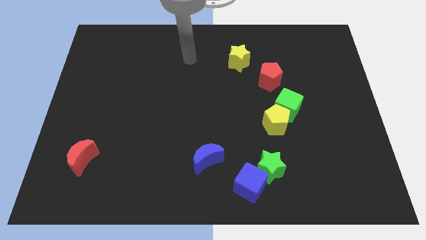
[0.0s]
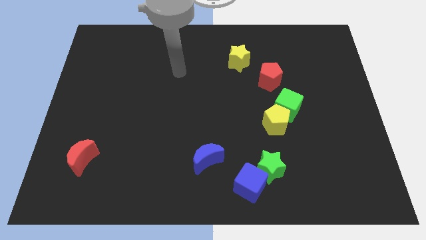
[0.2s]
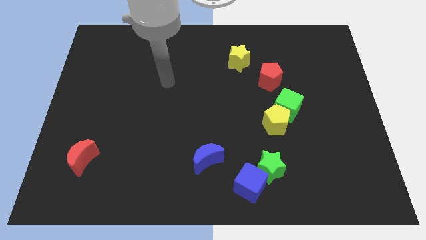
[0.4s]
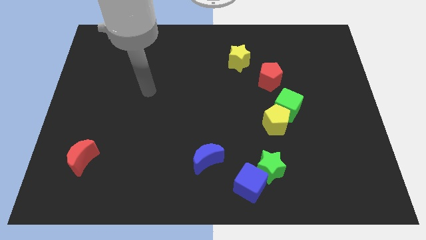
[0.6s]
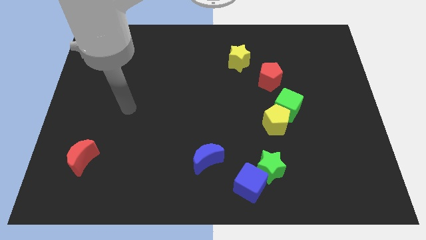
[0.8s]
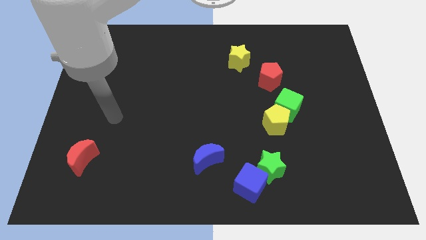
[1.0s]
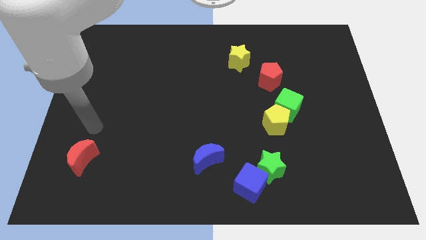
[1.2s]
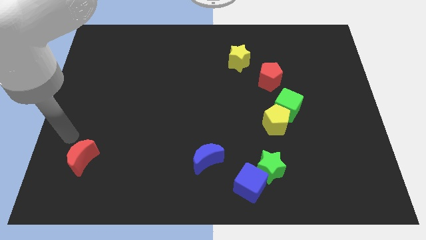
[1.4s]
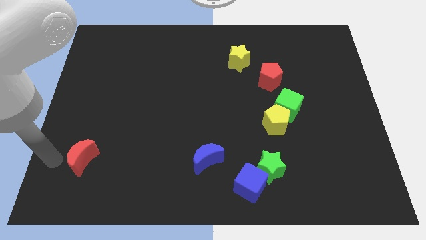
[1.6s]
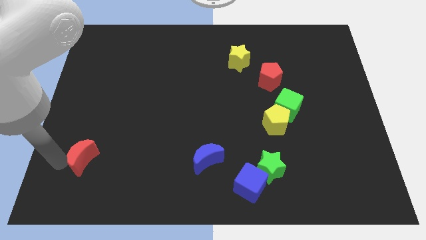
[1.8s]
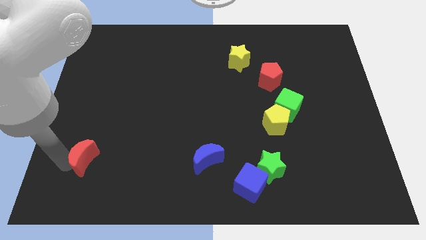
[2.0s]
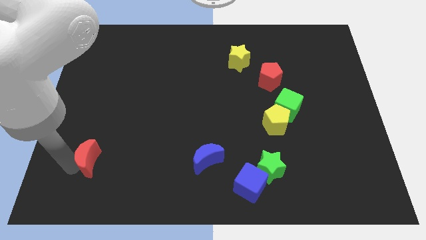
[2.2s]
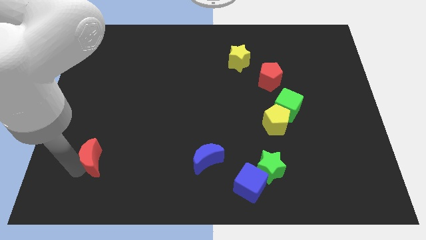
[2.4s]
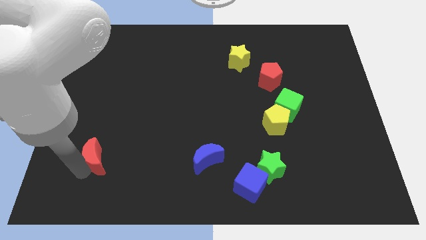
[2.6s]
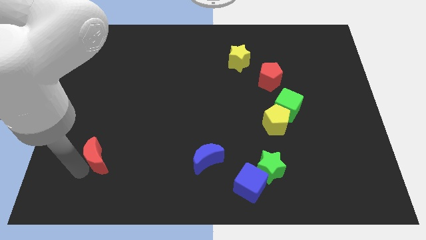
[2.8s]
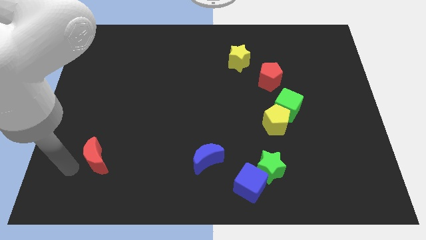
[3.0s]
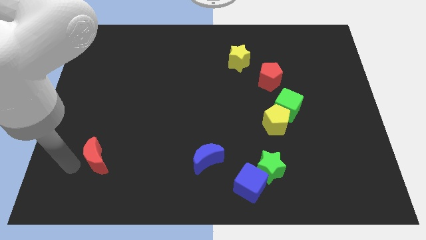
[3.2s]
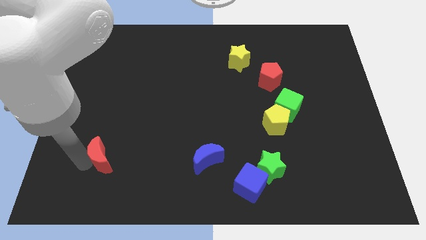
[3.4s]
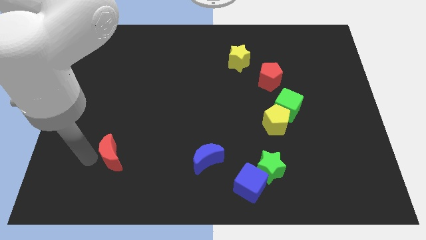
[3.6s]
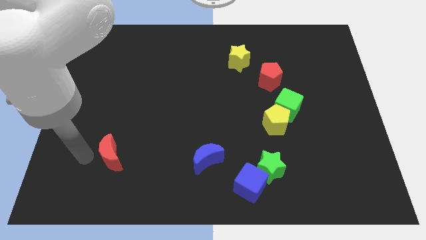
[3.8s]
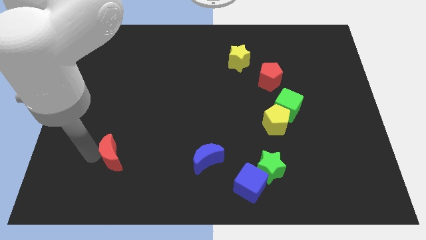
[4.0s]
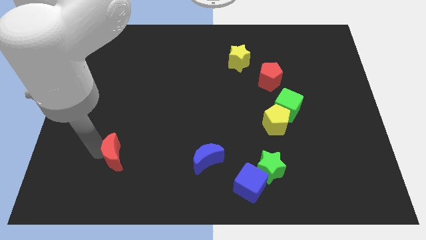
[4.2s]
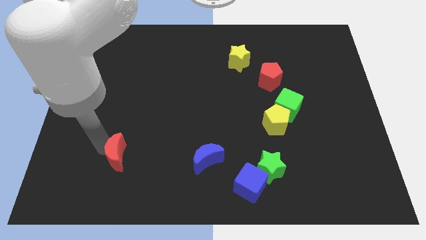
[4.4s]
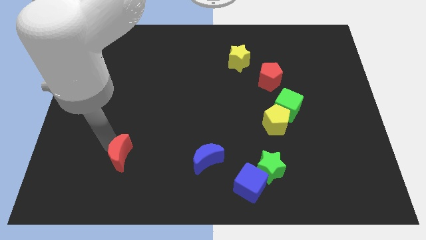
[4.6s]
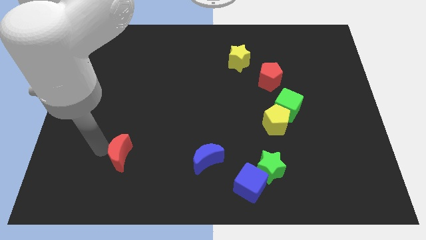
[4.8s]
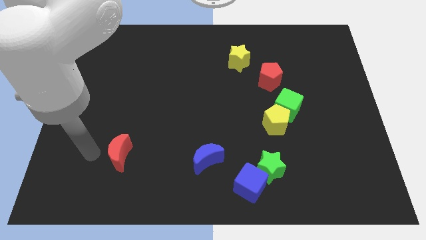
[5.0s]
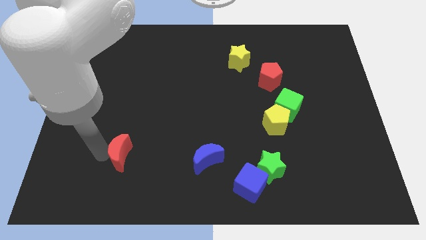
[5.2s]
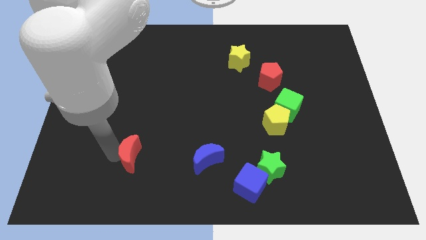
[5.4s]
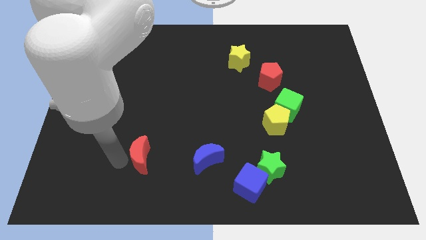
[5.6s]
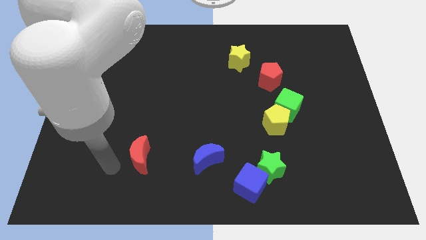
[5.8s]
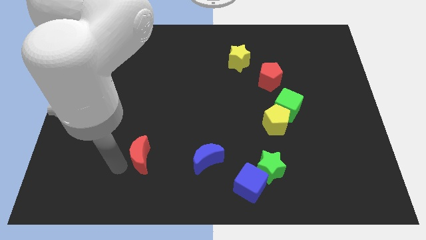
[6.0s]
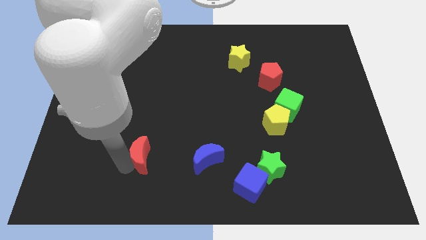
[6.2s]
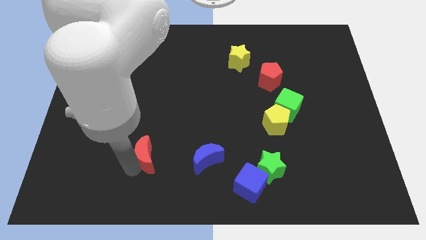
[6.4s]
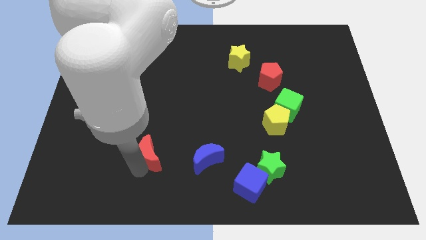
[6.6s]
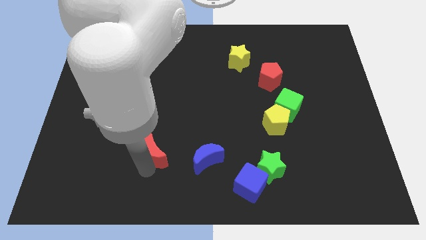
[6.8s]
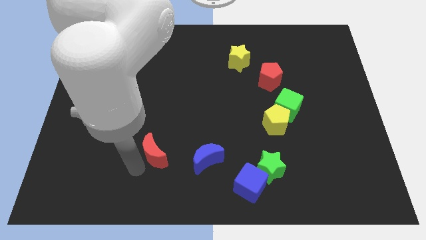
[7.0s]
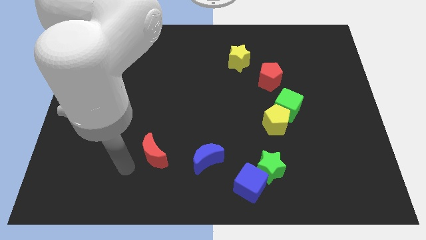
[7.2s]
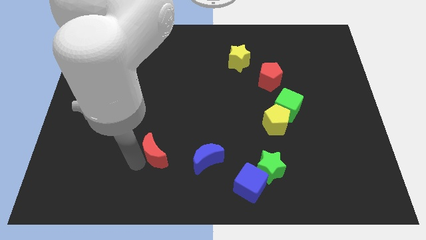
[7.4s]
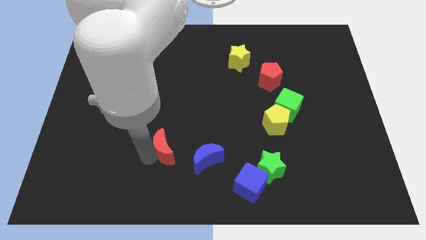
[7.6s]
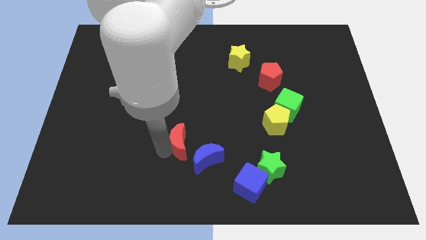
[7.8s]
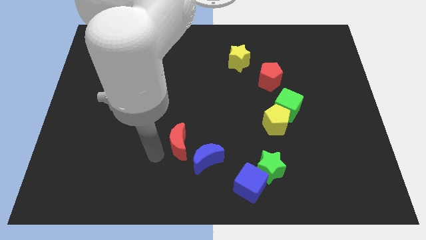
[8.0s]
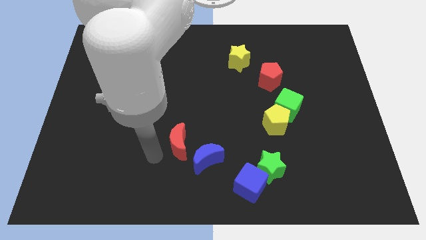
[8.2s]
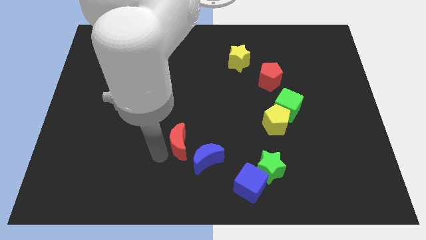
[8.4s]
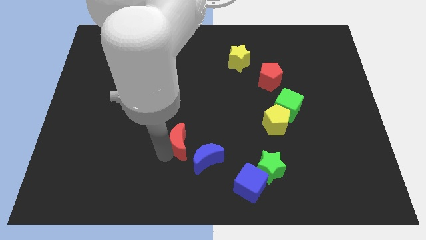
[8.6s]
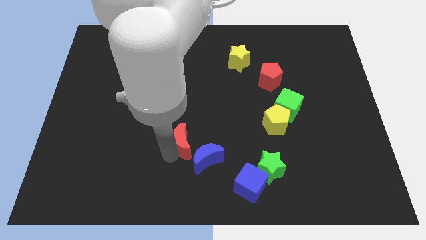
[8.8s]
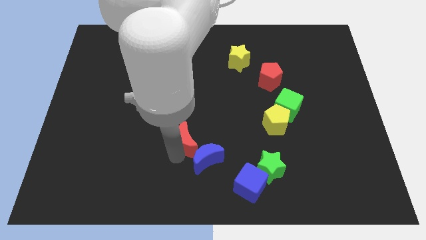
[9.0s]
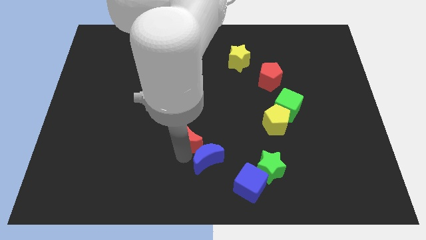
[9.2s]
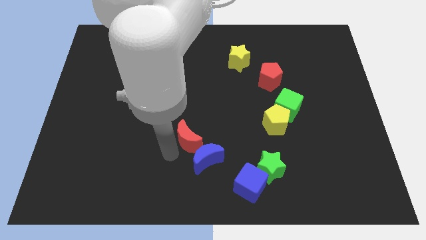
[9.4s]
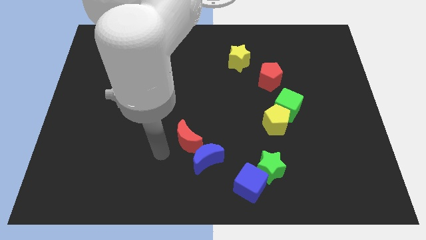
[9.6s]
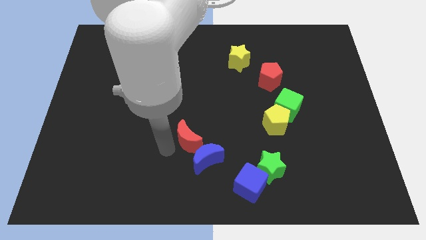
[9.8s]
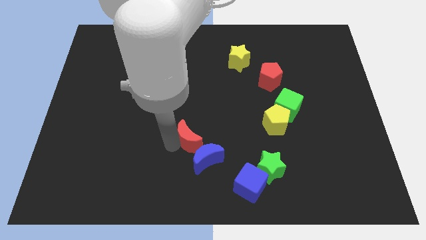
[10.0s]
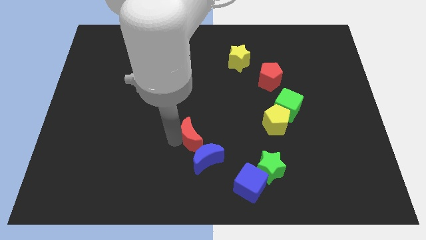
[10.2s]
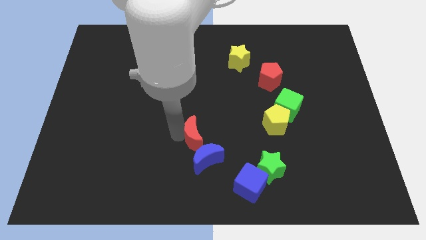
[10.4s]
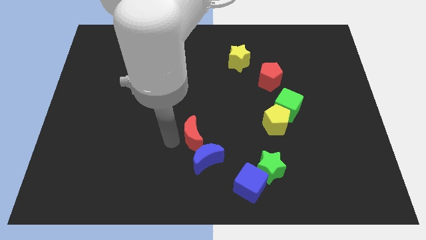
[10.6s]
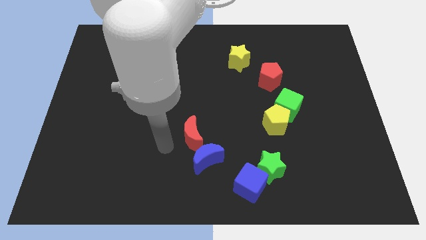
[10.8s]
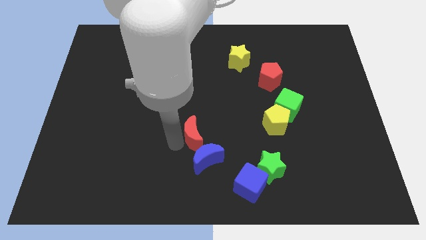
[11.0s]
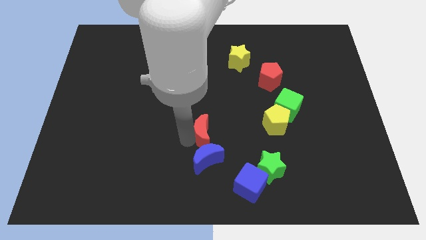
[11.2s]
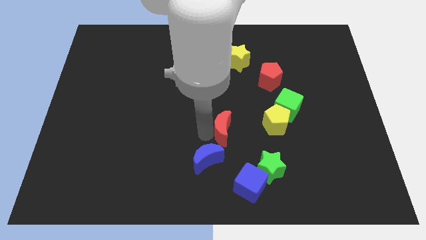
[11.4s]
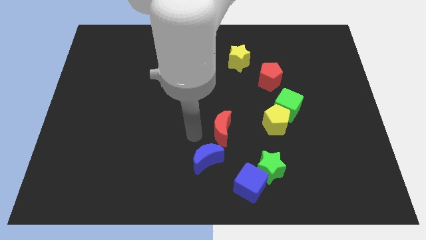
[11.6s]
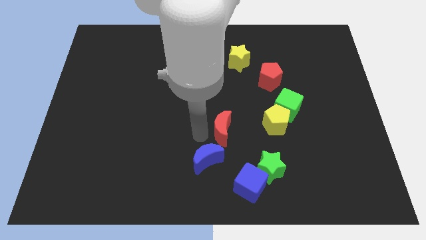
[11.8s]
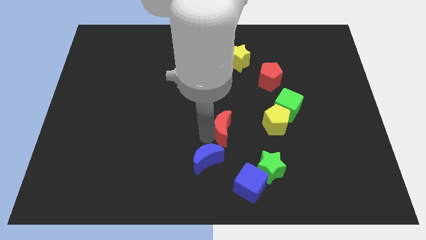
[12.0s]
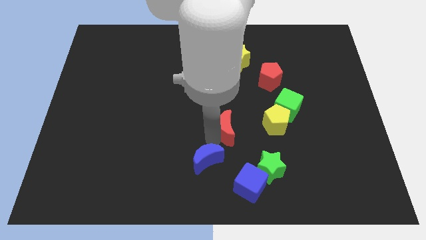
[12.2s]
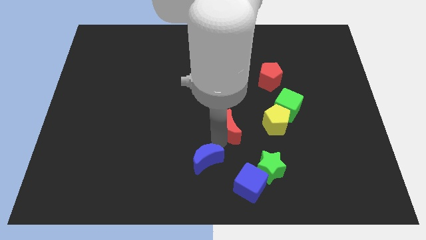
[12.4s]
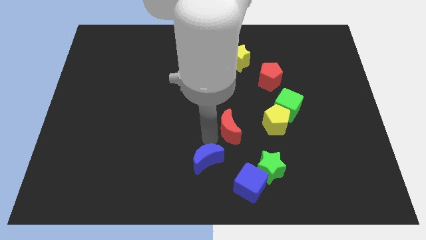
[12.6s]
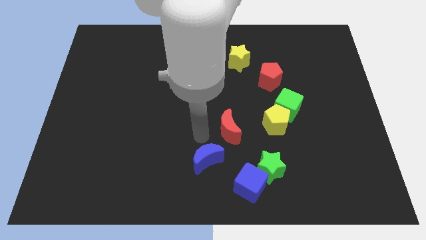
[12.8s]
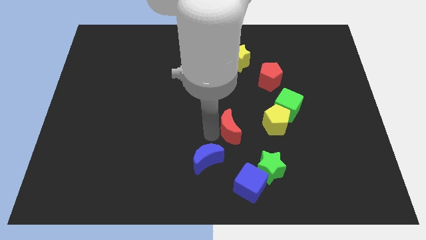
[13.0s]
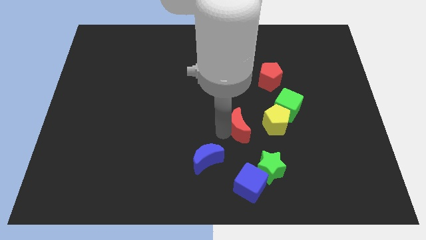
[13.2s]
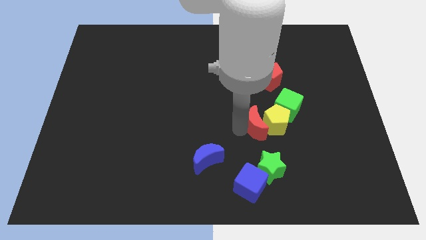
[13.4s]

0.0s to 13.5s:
move the red moon to the yellow pentagon

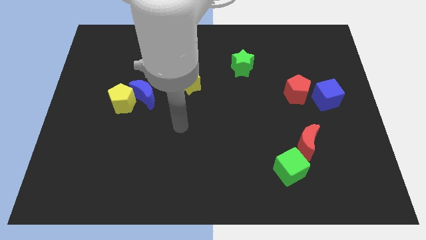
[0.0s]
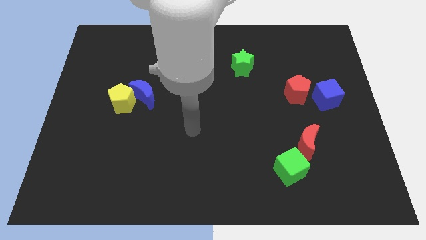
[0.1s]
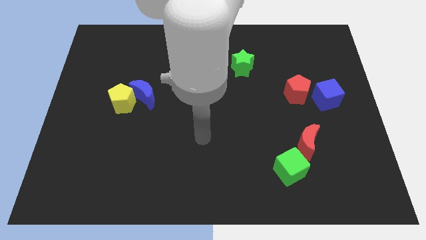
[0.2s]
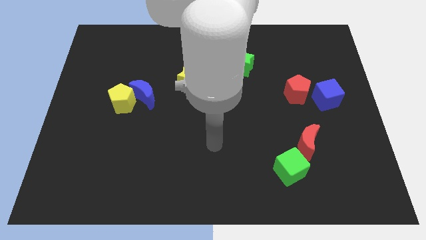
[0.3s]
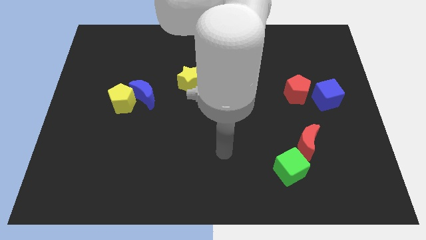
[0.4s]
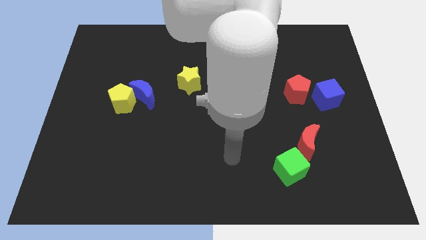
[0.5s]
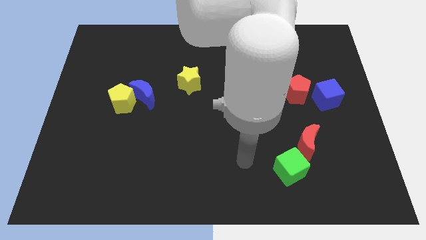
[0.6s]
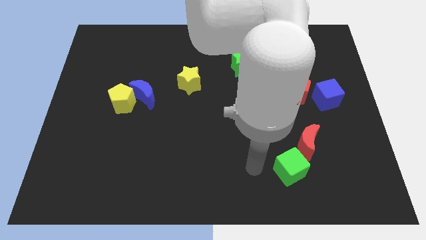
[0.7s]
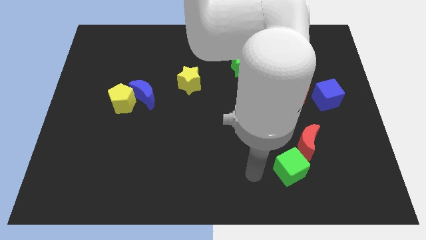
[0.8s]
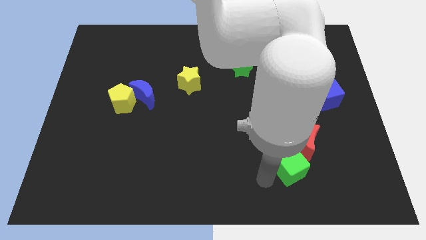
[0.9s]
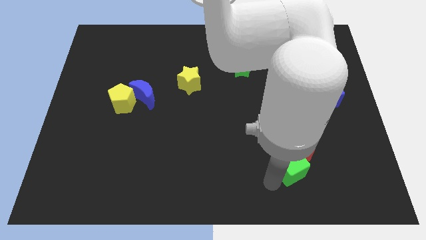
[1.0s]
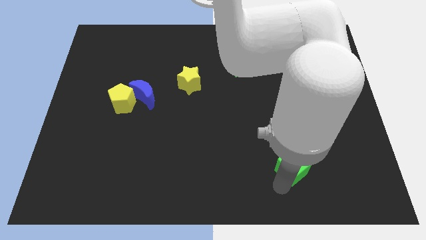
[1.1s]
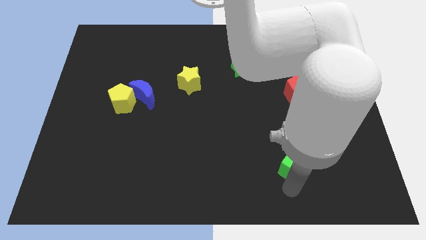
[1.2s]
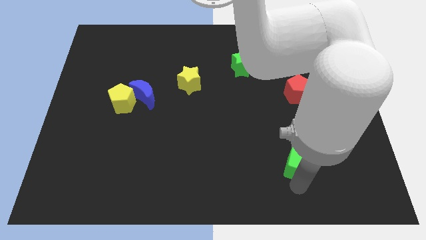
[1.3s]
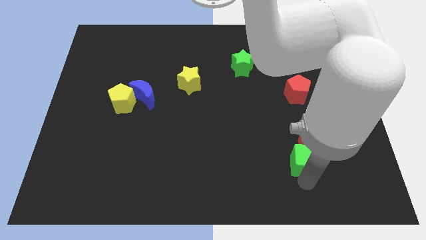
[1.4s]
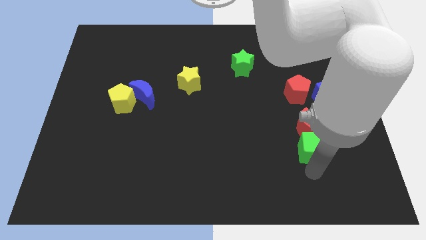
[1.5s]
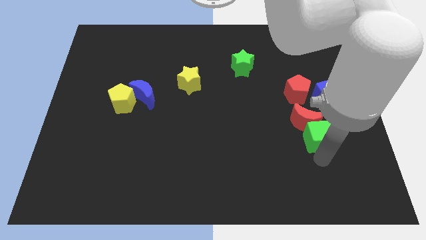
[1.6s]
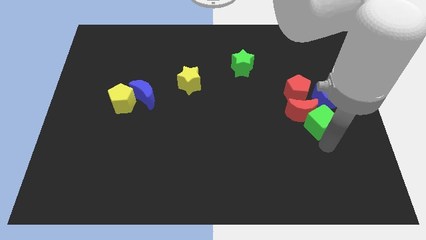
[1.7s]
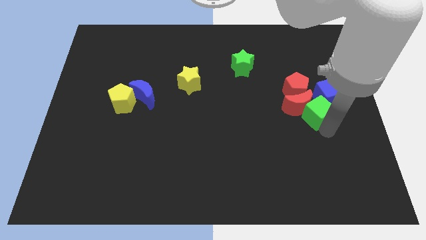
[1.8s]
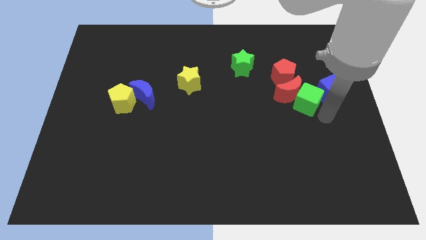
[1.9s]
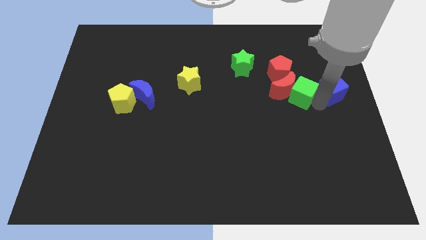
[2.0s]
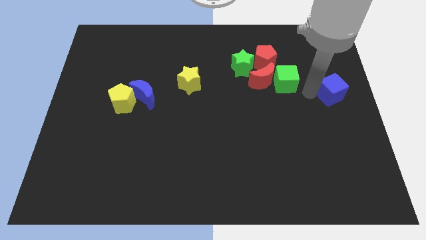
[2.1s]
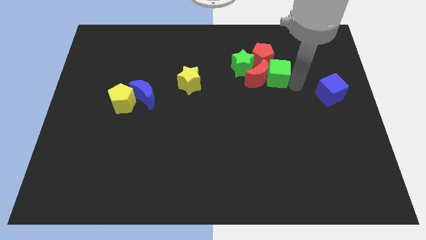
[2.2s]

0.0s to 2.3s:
slide the red moon to the green star
